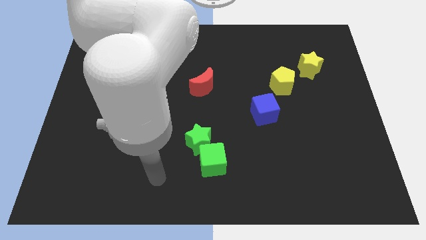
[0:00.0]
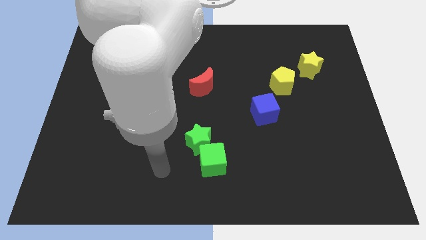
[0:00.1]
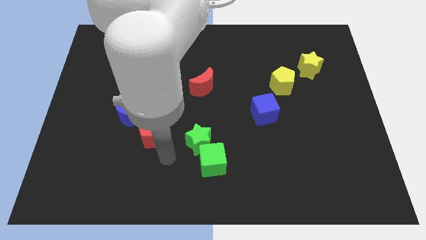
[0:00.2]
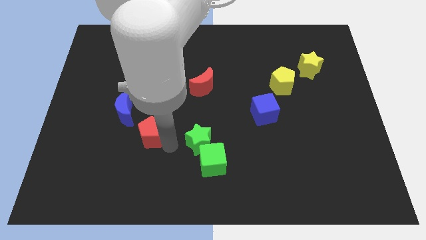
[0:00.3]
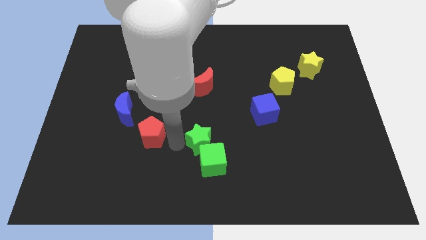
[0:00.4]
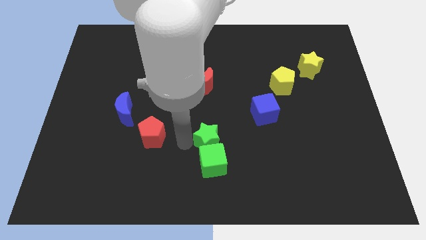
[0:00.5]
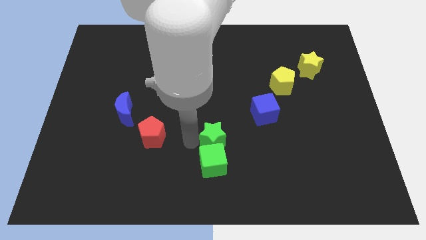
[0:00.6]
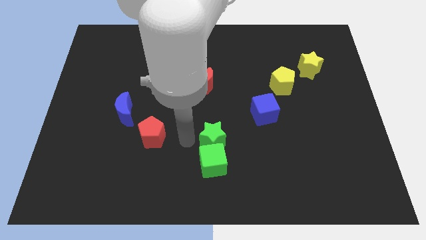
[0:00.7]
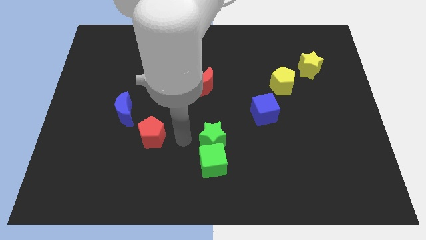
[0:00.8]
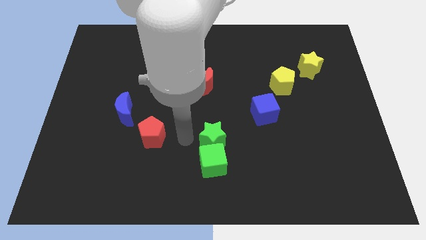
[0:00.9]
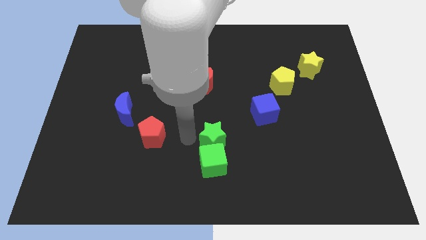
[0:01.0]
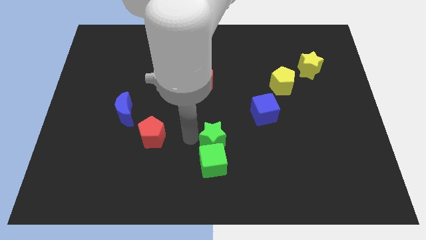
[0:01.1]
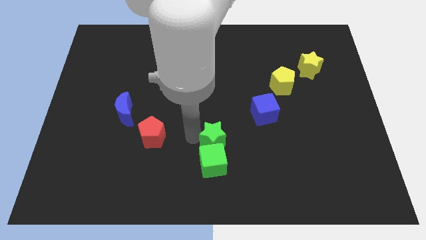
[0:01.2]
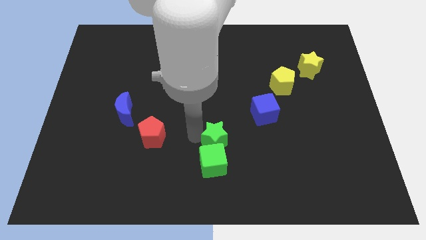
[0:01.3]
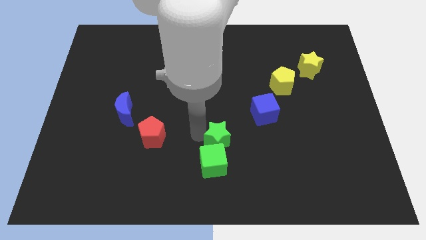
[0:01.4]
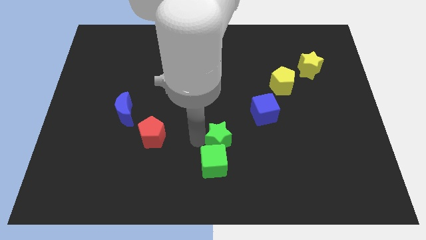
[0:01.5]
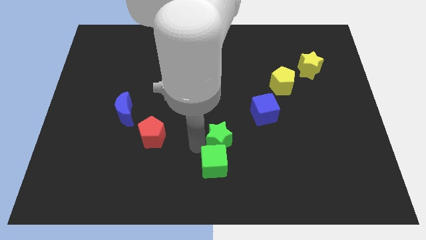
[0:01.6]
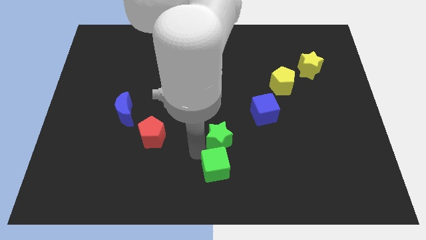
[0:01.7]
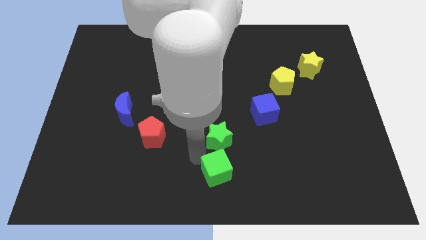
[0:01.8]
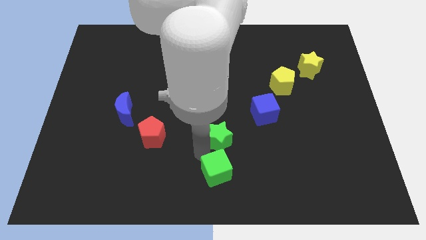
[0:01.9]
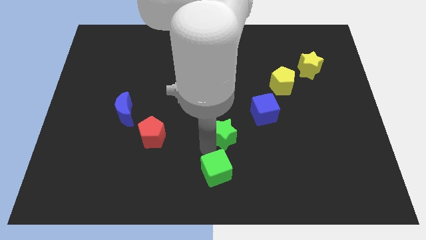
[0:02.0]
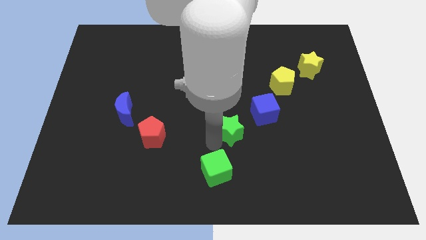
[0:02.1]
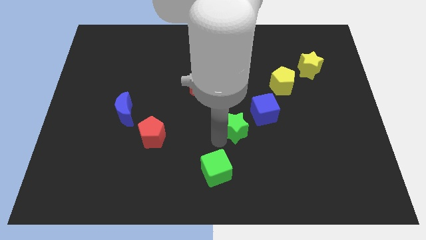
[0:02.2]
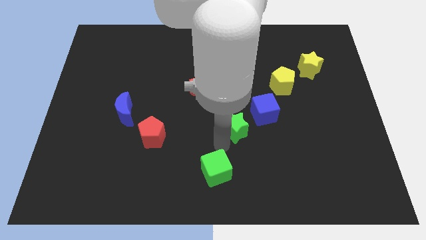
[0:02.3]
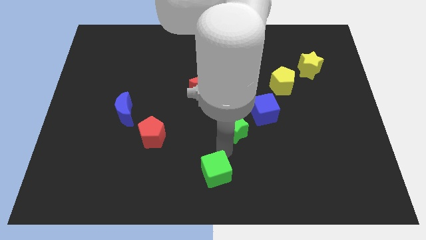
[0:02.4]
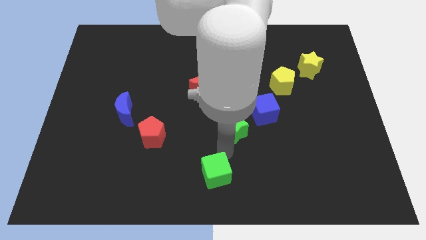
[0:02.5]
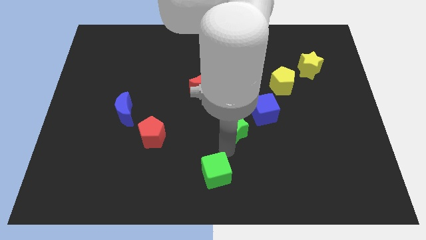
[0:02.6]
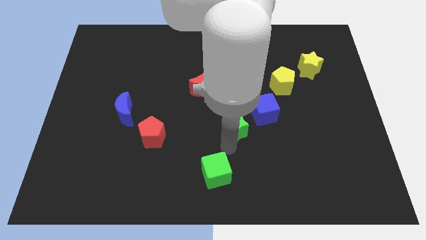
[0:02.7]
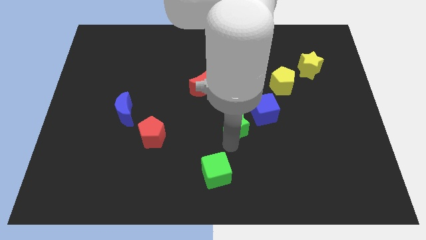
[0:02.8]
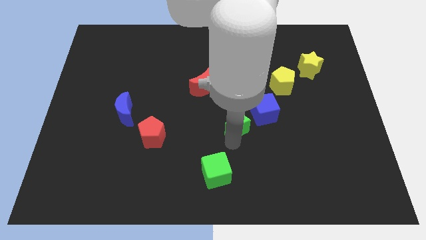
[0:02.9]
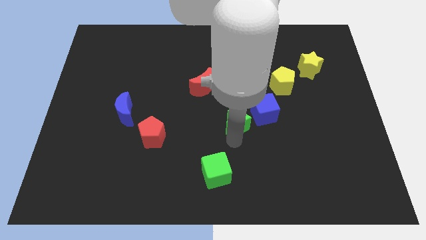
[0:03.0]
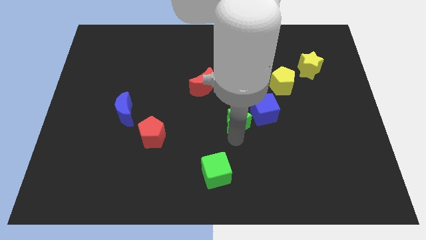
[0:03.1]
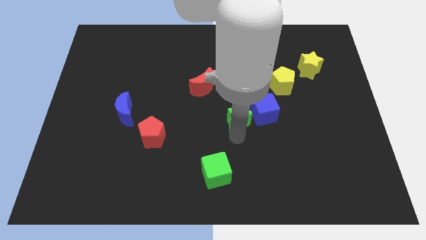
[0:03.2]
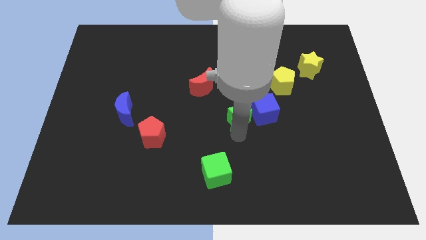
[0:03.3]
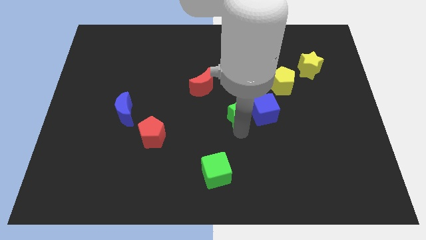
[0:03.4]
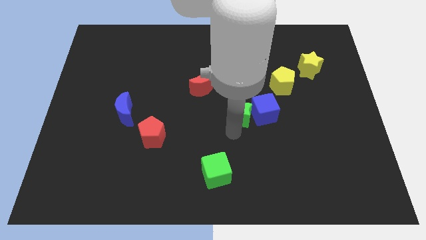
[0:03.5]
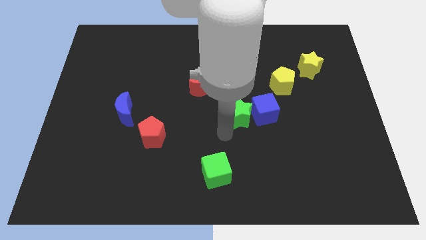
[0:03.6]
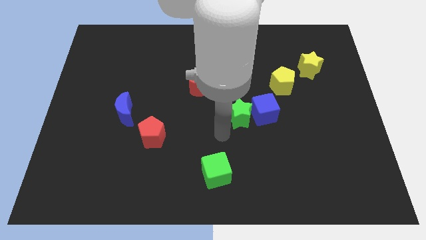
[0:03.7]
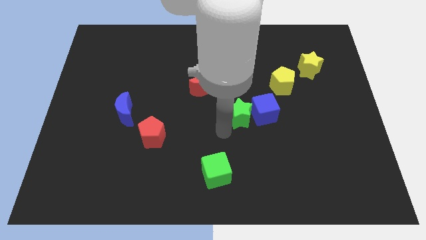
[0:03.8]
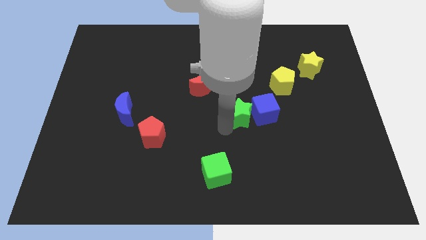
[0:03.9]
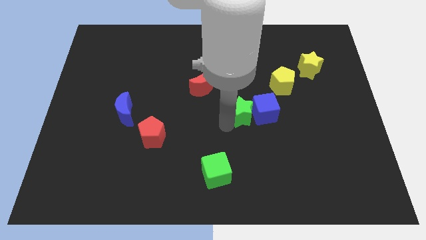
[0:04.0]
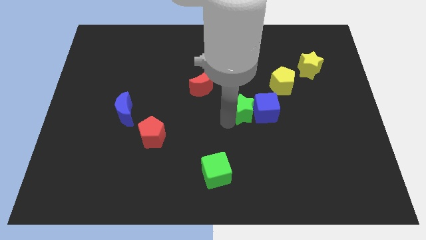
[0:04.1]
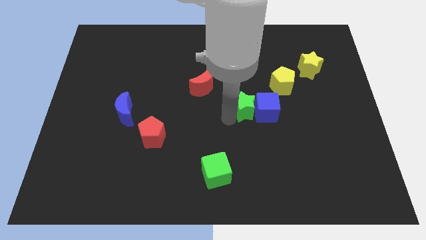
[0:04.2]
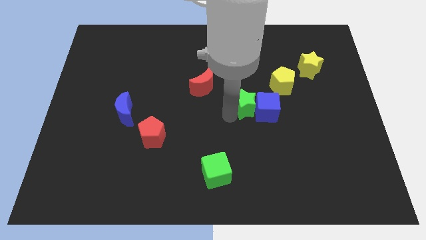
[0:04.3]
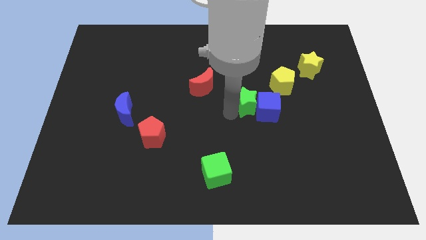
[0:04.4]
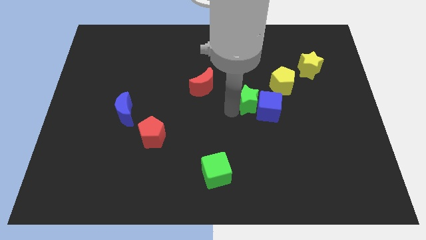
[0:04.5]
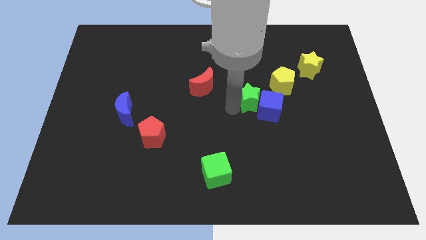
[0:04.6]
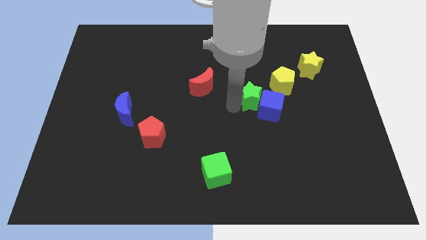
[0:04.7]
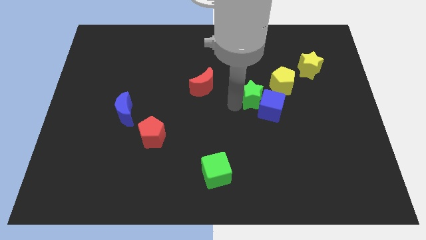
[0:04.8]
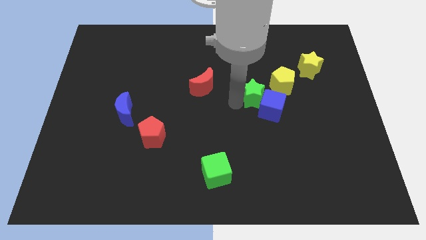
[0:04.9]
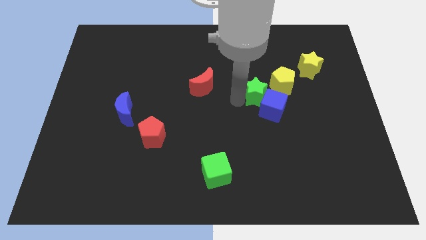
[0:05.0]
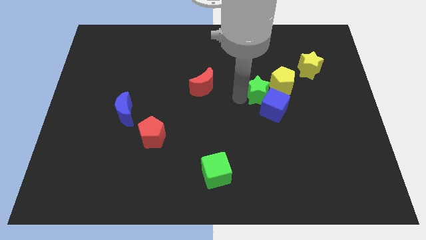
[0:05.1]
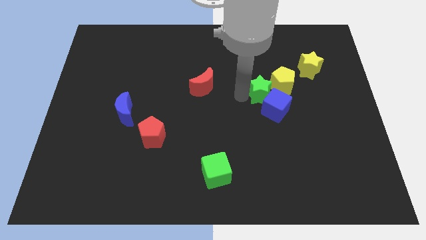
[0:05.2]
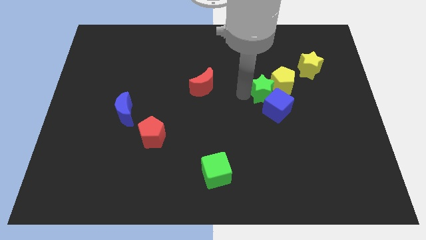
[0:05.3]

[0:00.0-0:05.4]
push the green star close to the yellow pentagon

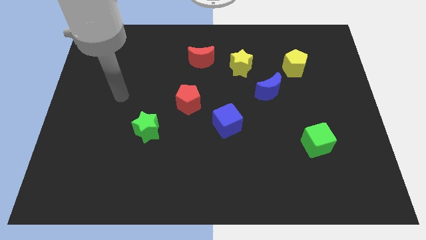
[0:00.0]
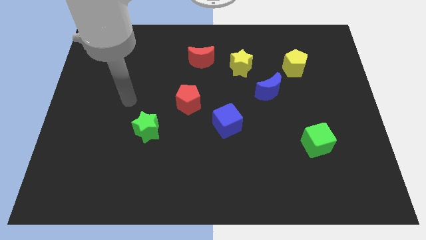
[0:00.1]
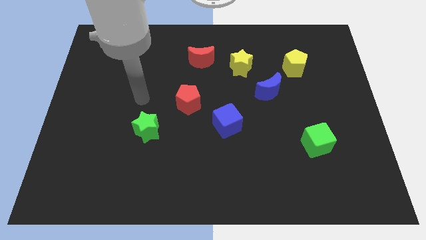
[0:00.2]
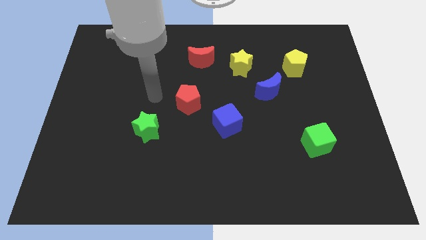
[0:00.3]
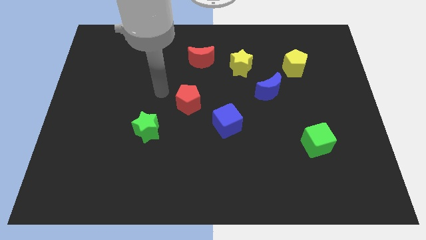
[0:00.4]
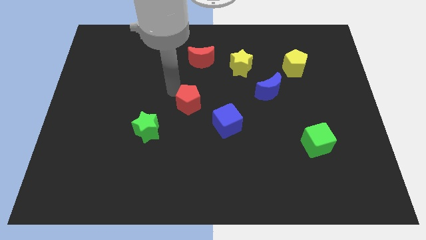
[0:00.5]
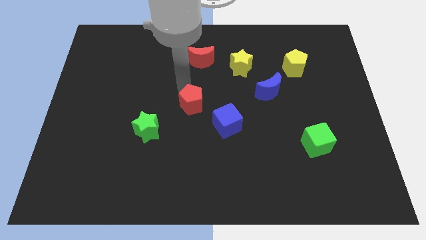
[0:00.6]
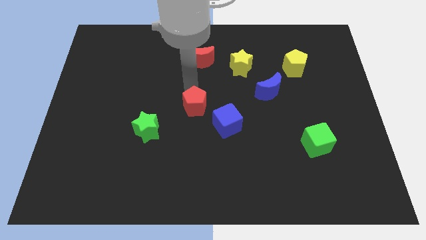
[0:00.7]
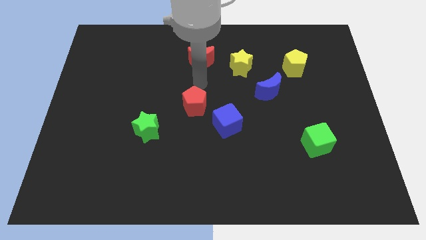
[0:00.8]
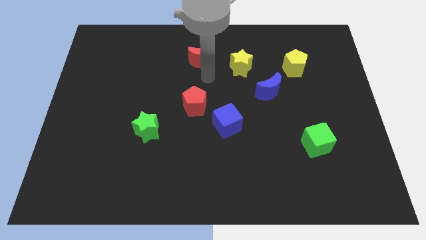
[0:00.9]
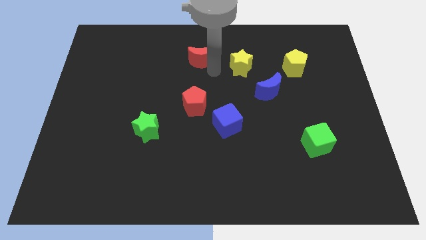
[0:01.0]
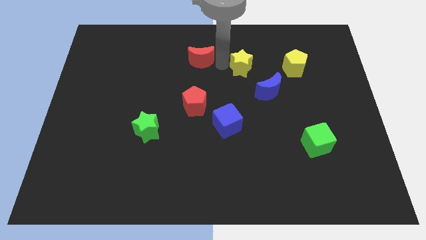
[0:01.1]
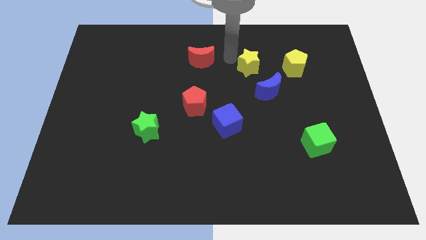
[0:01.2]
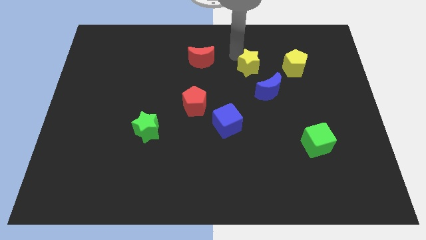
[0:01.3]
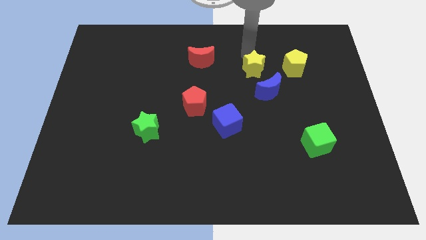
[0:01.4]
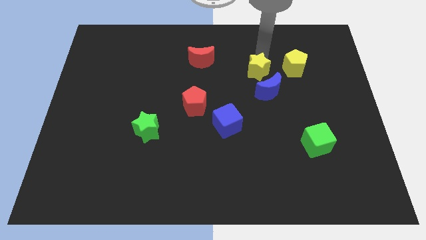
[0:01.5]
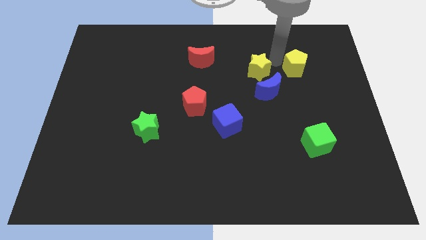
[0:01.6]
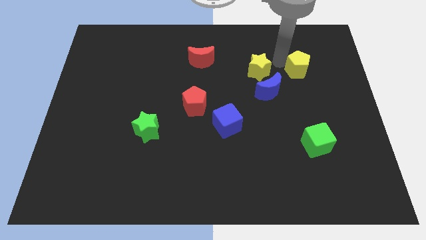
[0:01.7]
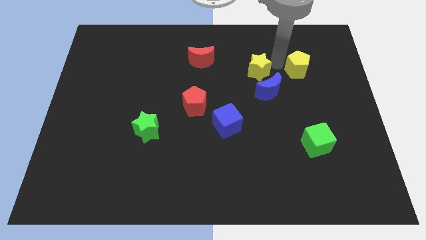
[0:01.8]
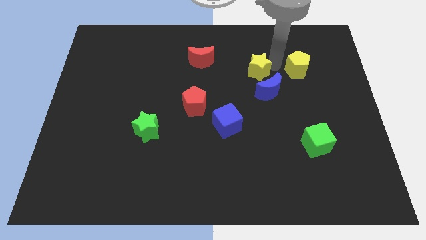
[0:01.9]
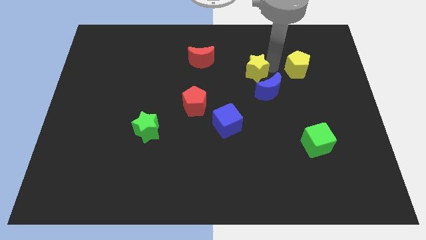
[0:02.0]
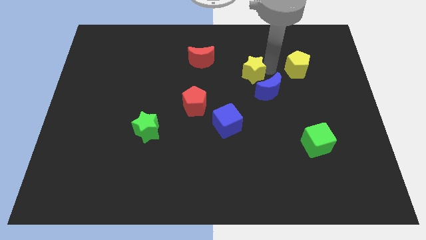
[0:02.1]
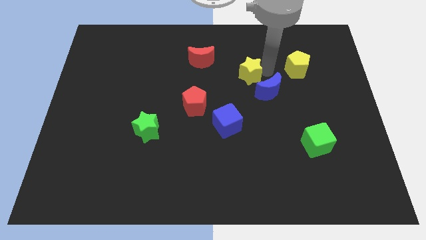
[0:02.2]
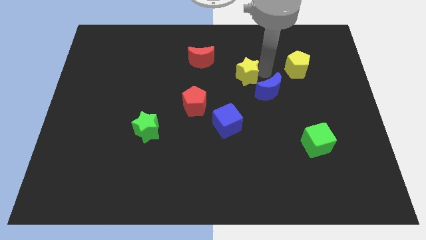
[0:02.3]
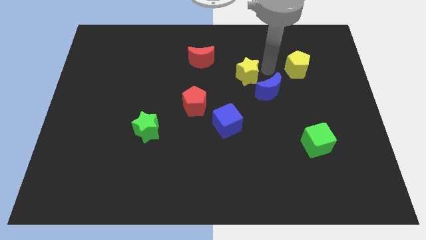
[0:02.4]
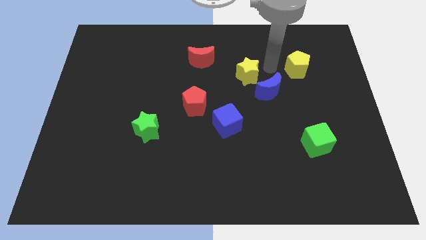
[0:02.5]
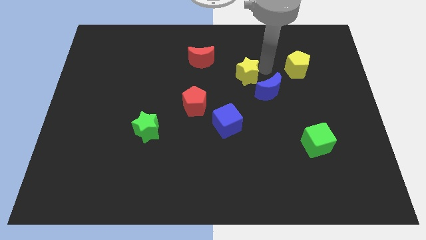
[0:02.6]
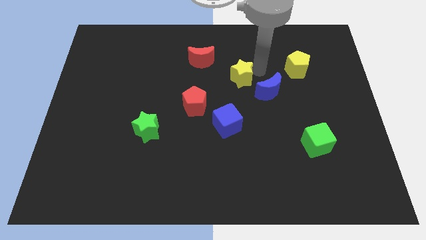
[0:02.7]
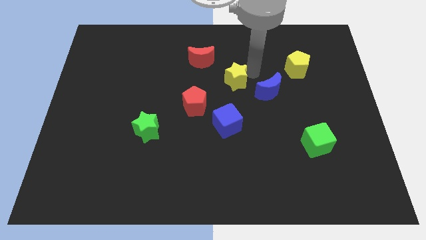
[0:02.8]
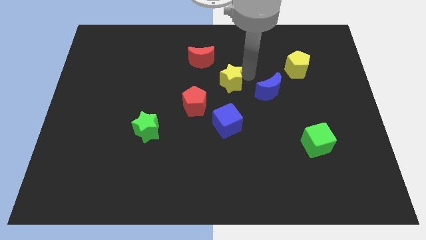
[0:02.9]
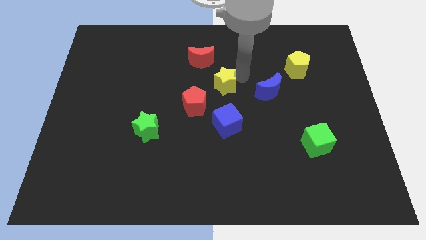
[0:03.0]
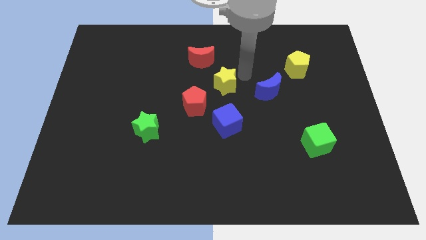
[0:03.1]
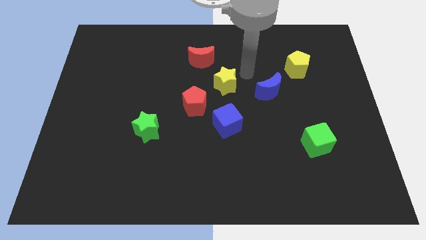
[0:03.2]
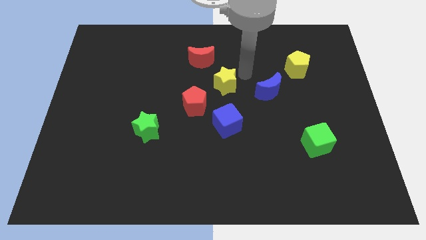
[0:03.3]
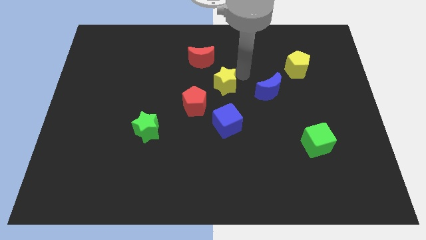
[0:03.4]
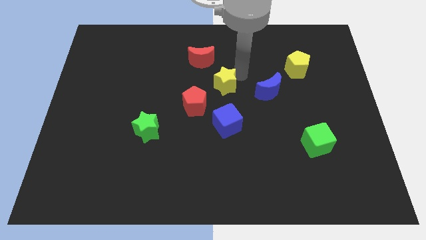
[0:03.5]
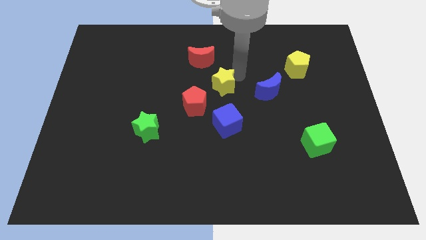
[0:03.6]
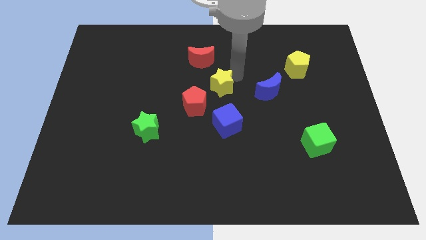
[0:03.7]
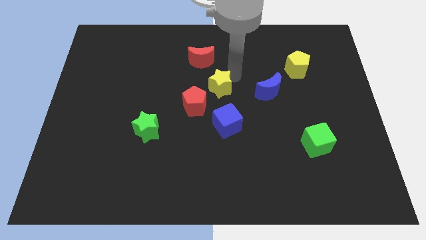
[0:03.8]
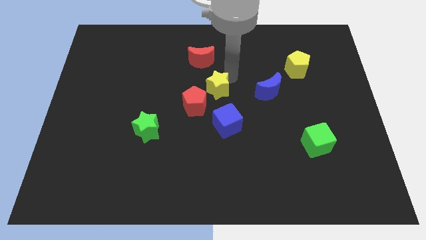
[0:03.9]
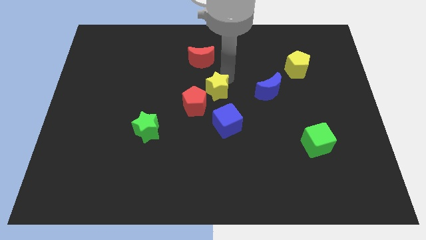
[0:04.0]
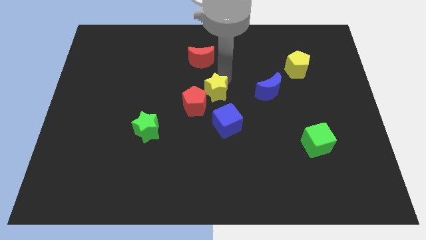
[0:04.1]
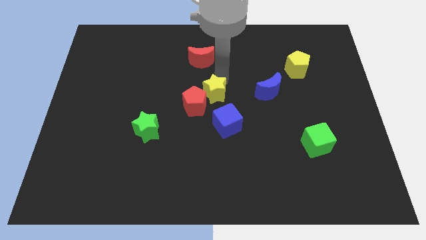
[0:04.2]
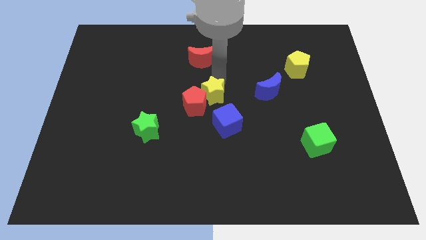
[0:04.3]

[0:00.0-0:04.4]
move the yellow star next to the red pentagon
